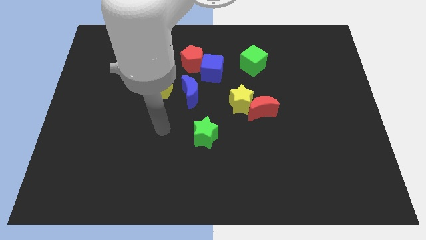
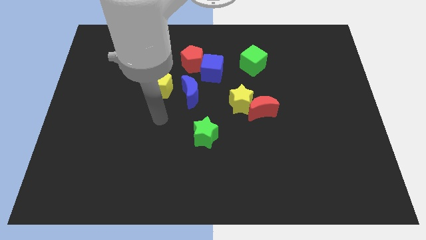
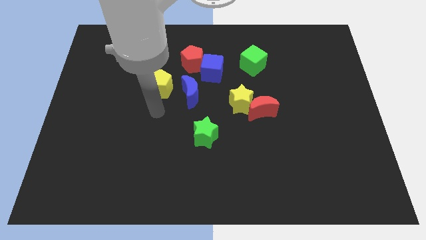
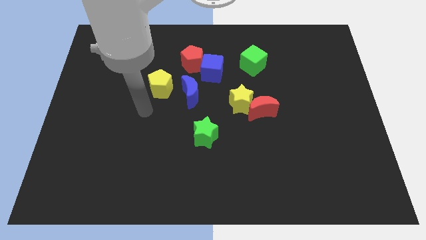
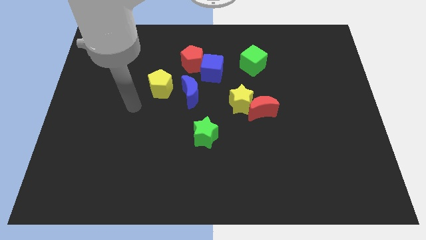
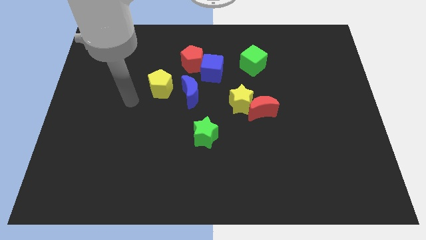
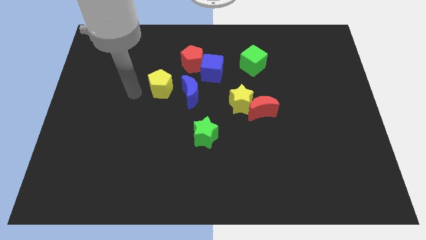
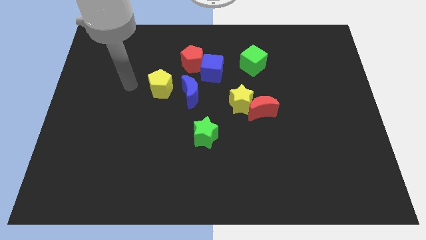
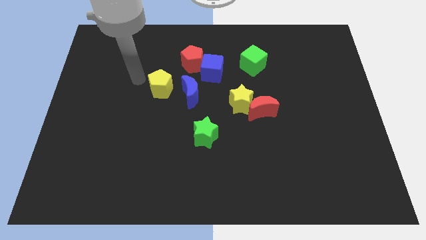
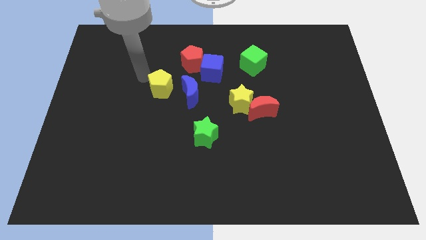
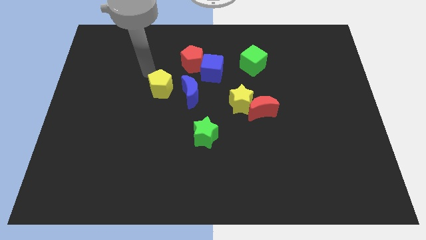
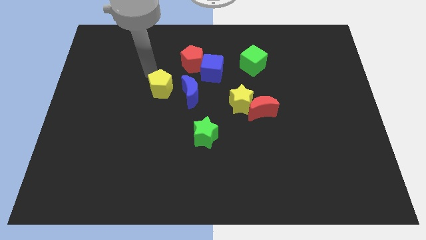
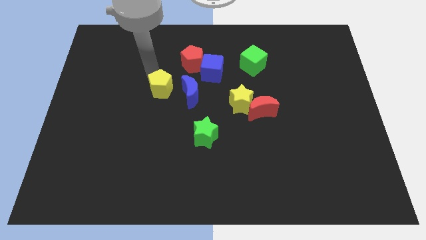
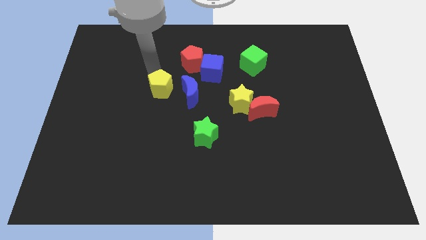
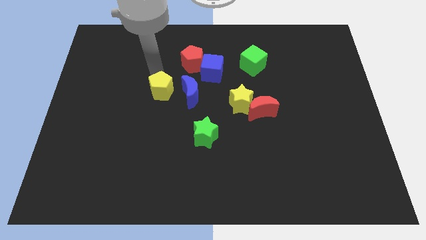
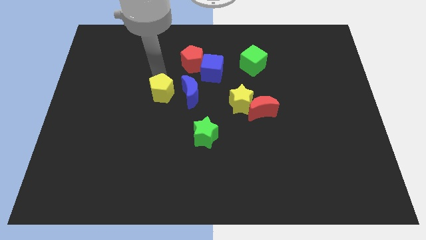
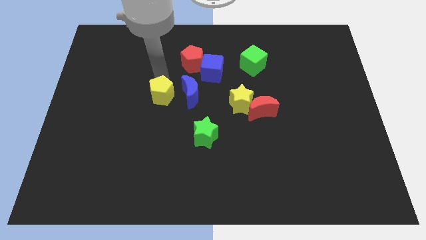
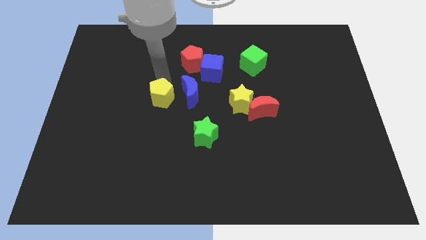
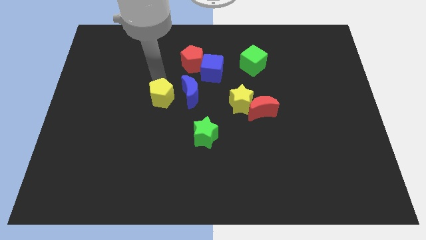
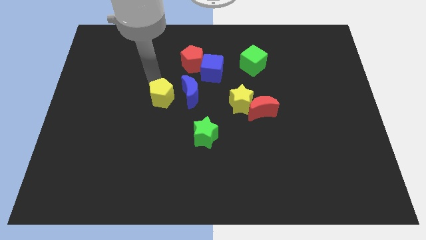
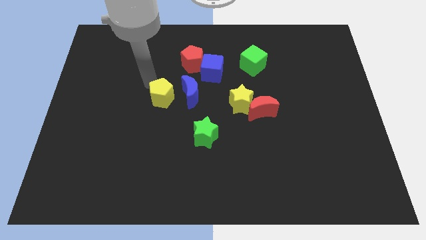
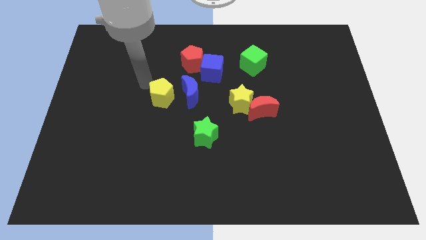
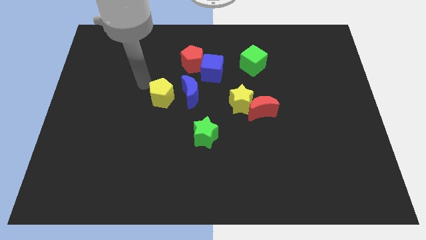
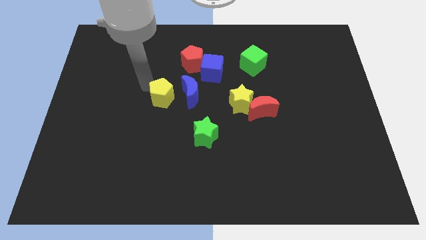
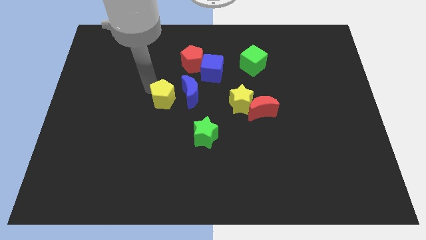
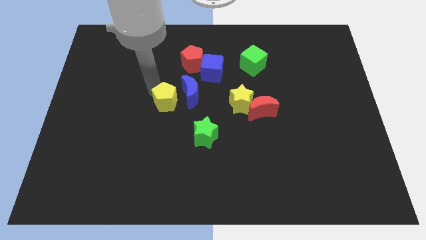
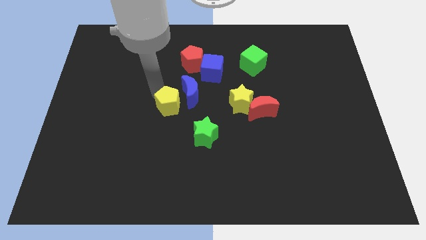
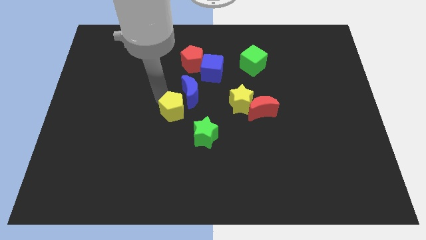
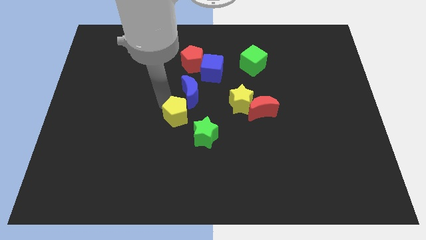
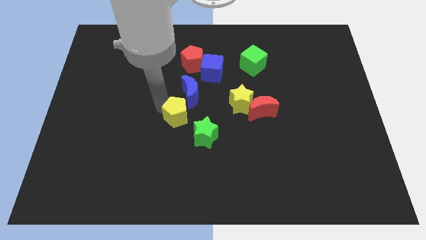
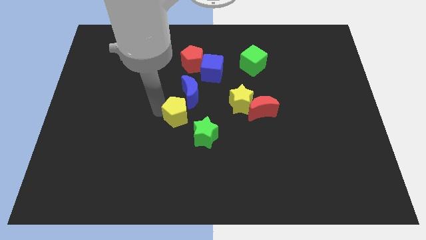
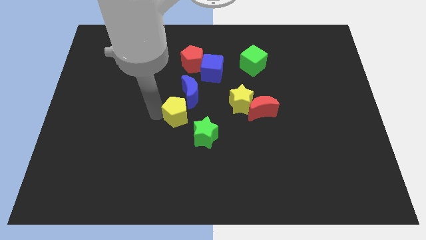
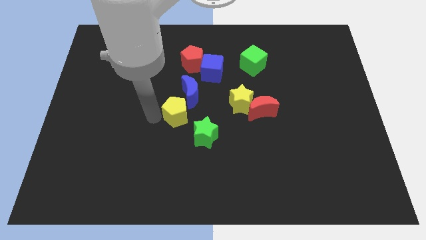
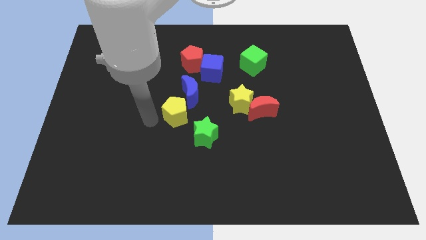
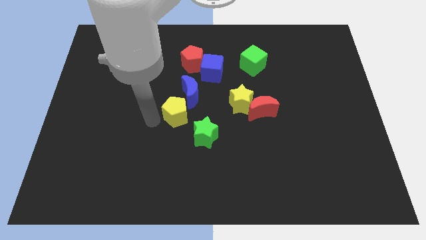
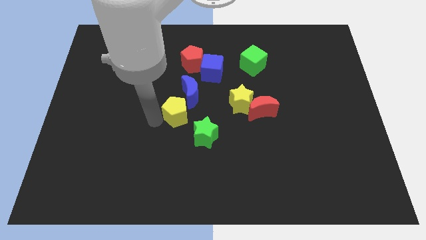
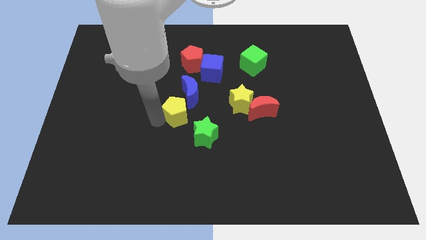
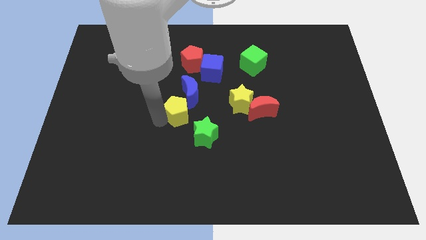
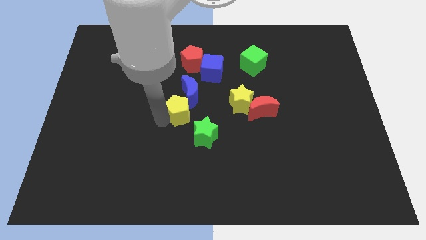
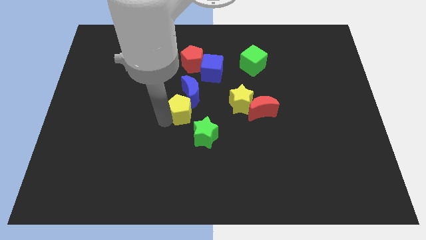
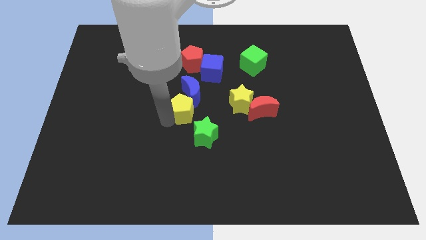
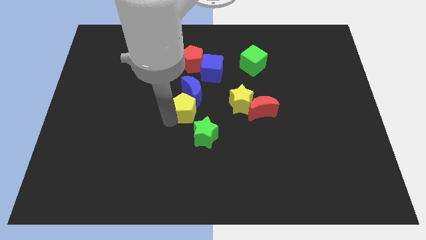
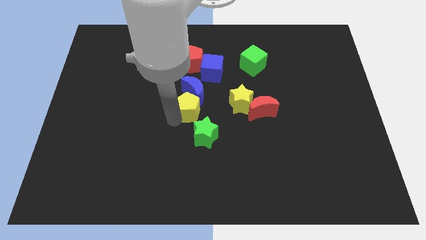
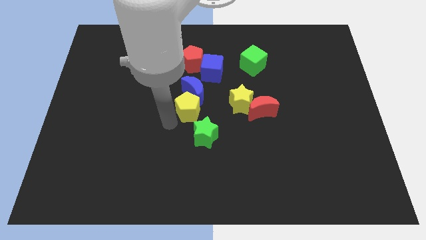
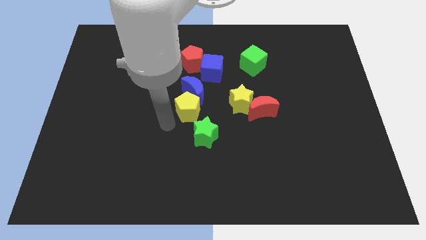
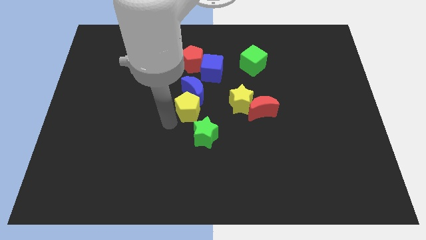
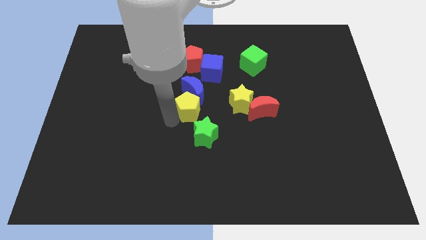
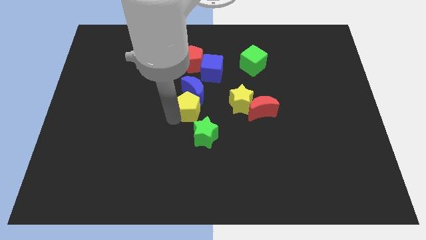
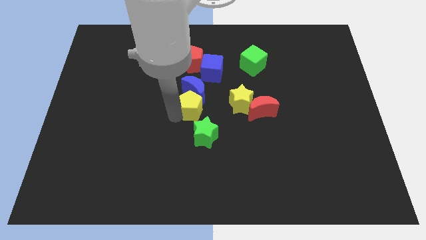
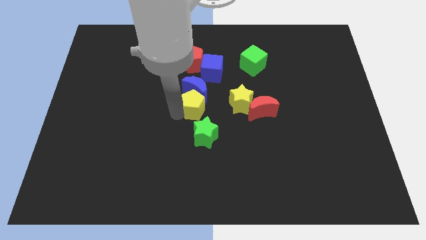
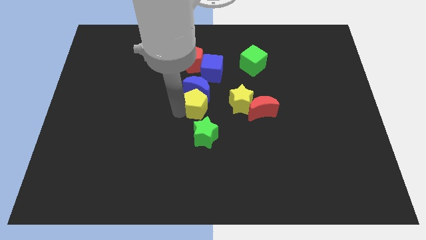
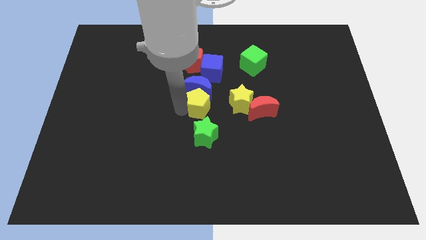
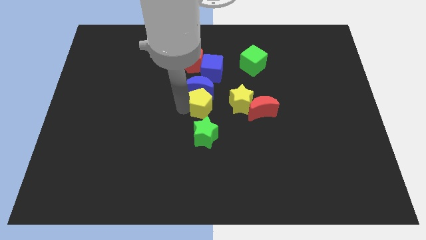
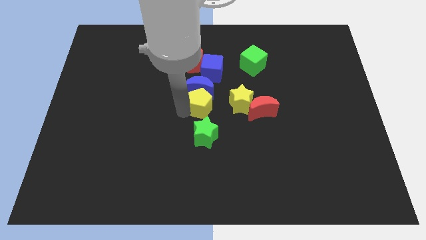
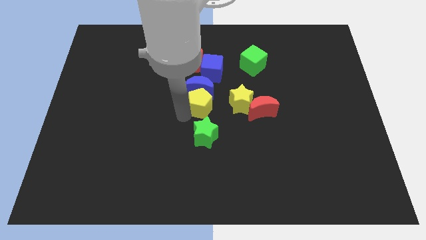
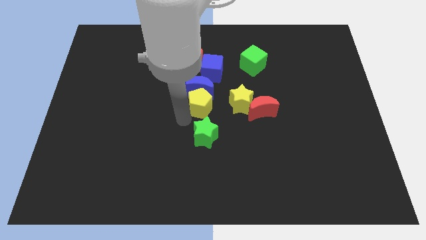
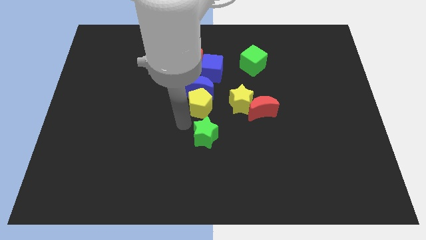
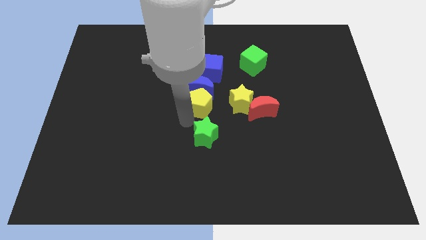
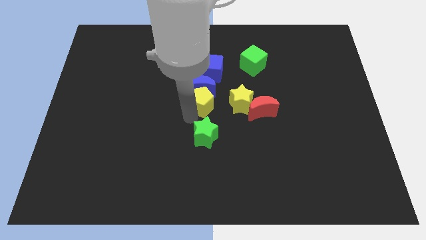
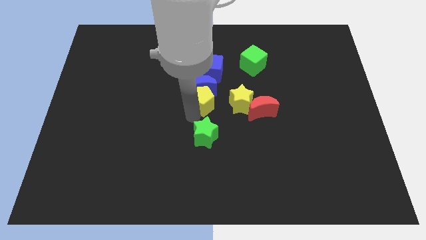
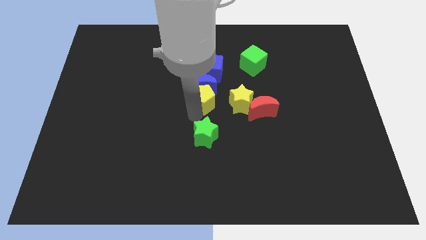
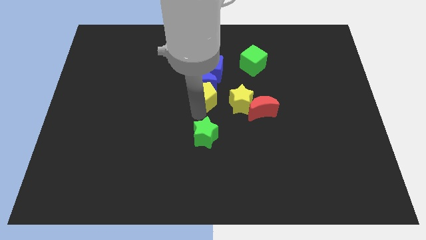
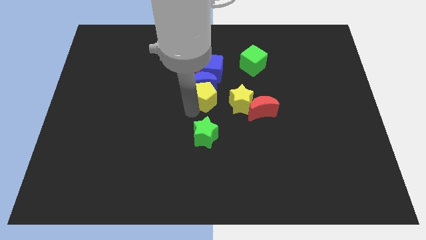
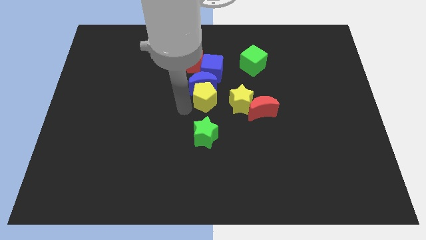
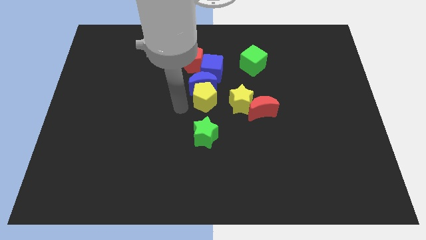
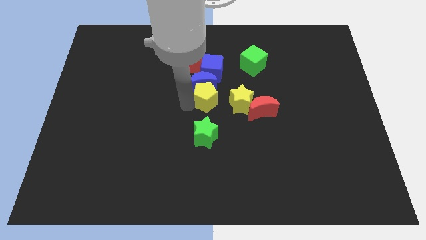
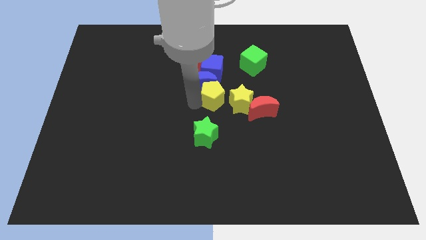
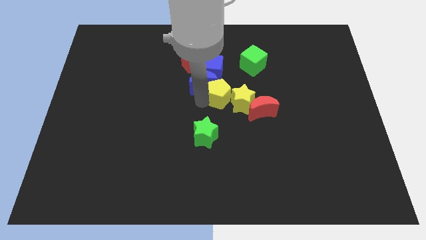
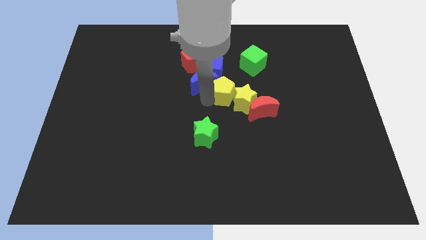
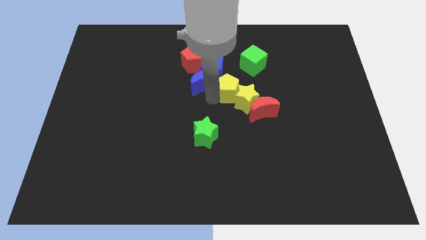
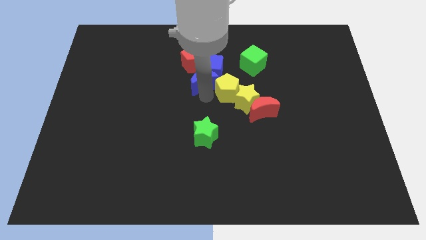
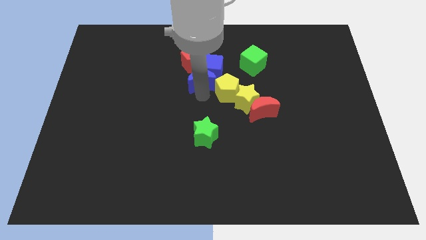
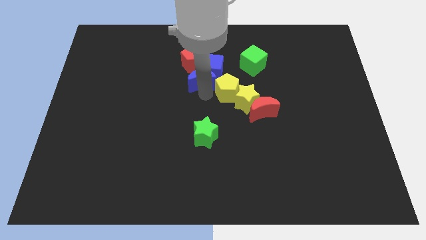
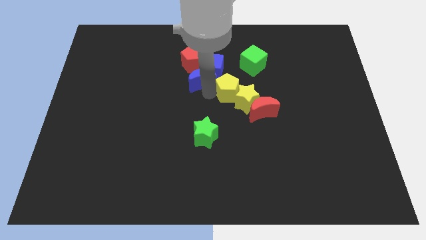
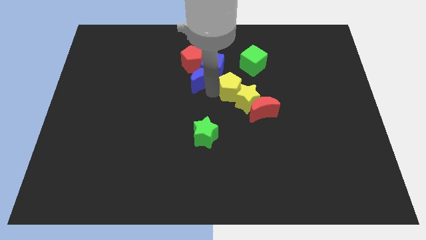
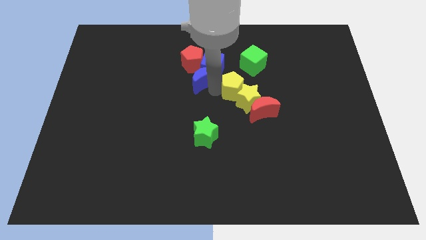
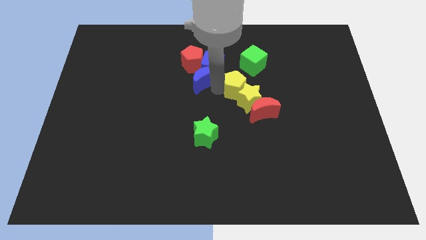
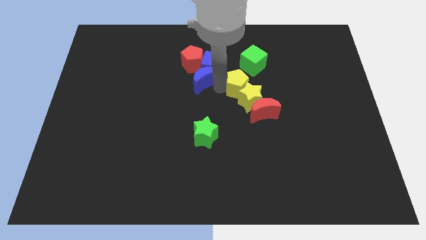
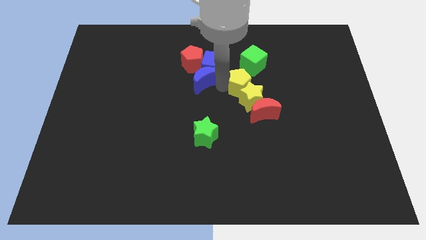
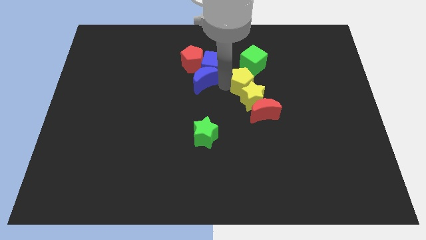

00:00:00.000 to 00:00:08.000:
push the yellow pentagon to the right
